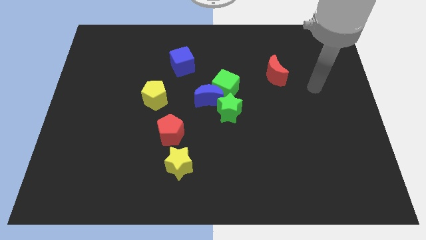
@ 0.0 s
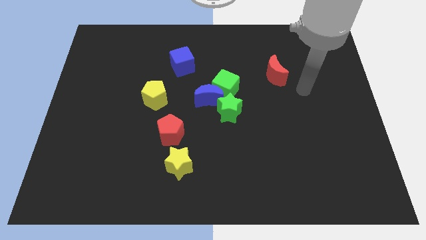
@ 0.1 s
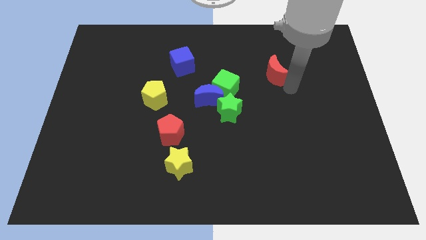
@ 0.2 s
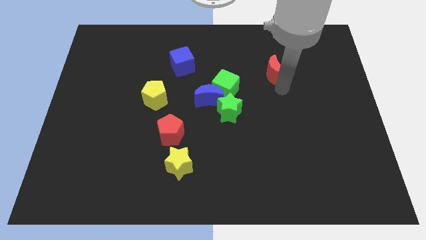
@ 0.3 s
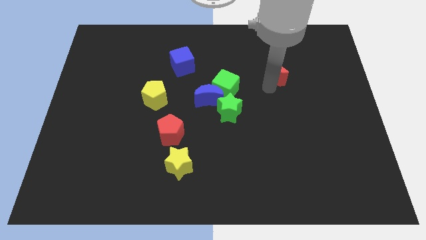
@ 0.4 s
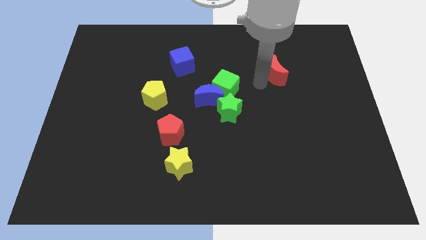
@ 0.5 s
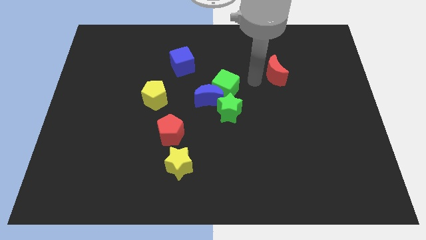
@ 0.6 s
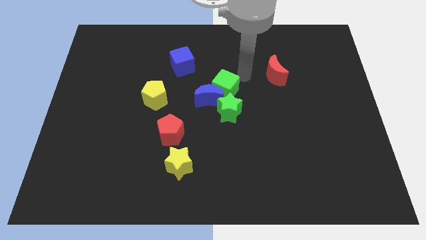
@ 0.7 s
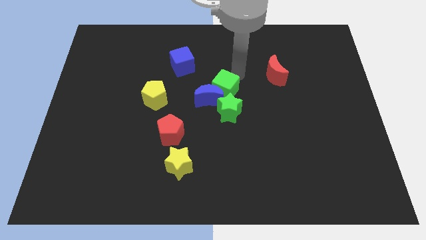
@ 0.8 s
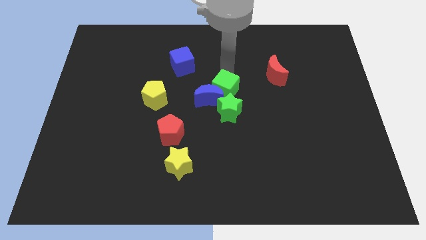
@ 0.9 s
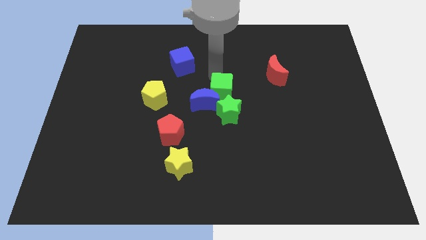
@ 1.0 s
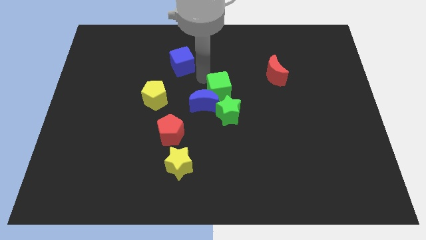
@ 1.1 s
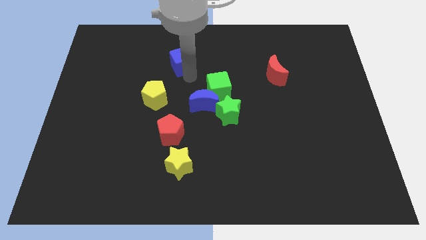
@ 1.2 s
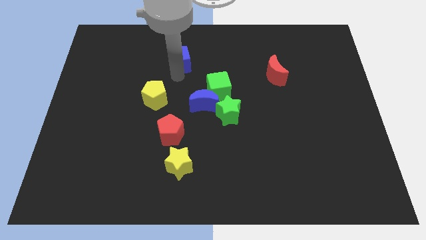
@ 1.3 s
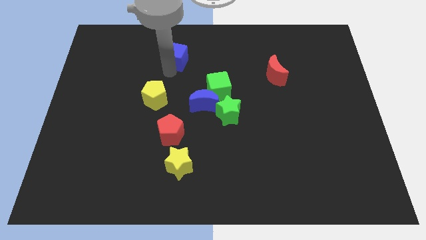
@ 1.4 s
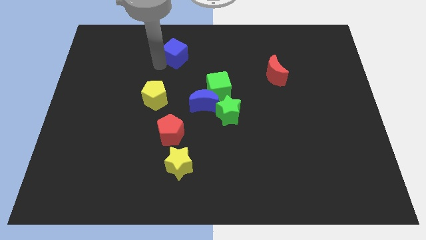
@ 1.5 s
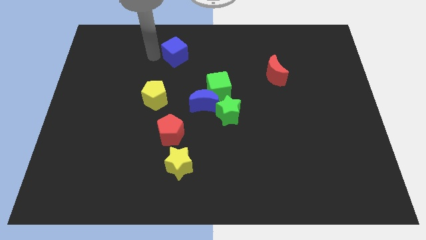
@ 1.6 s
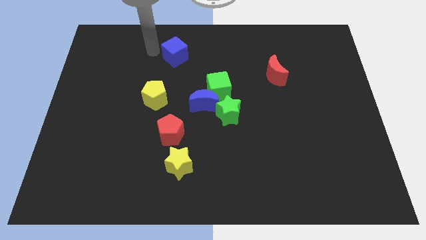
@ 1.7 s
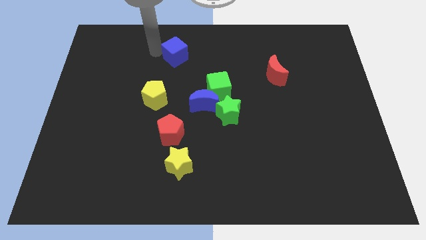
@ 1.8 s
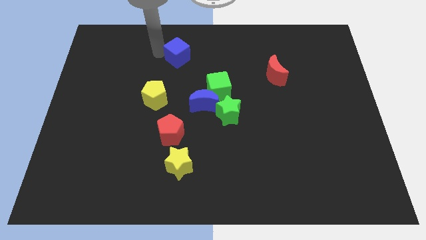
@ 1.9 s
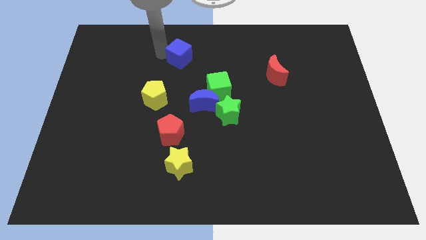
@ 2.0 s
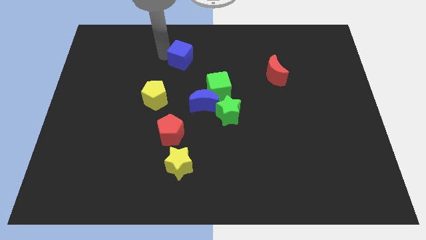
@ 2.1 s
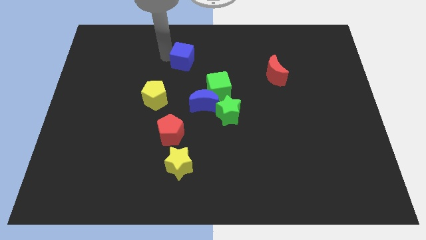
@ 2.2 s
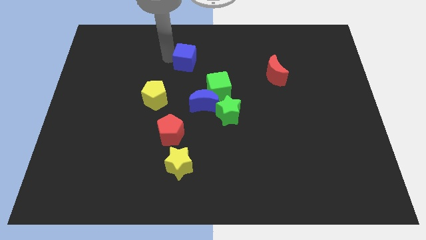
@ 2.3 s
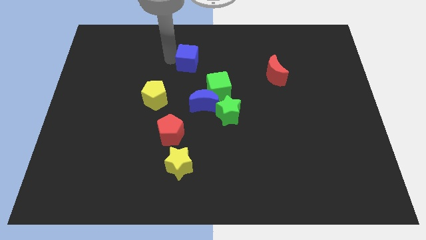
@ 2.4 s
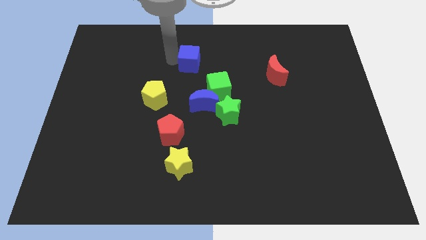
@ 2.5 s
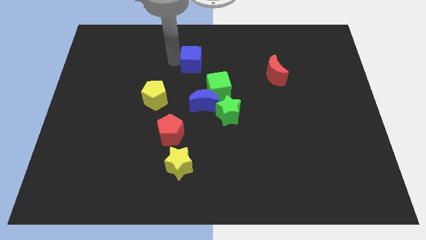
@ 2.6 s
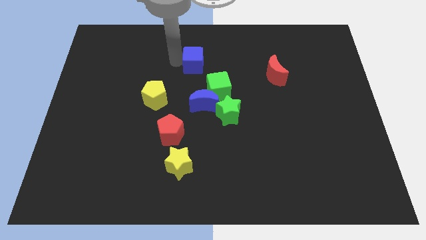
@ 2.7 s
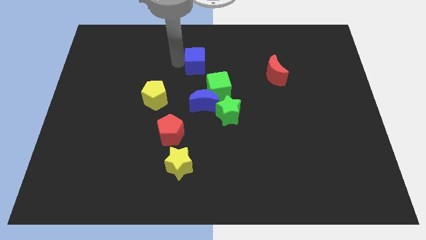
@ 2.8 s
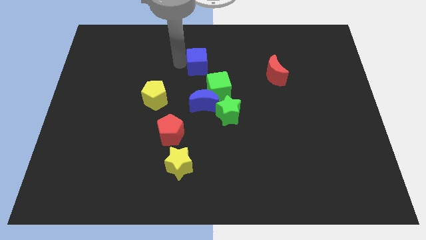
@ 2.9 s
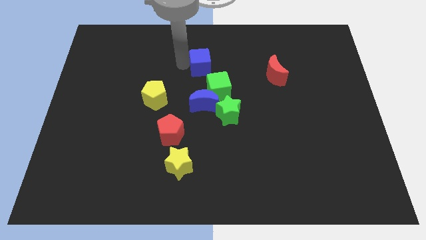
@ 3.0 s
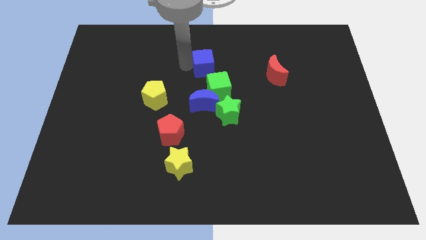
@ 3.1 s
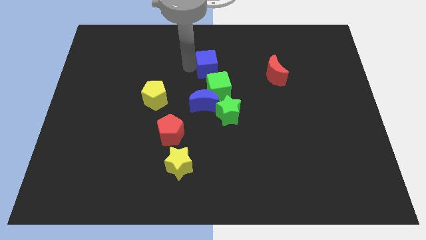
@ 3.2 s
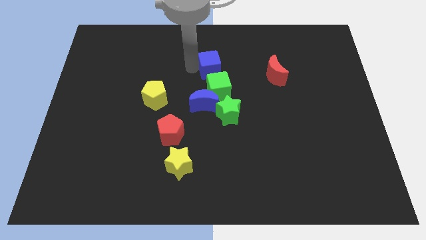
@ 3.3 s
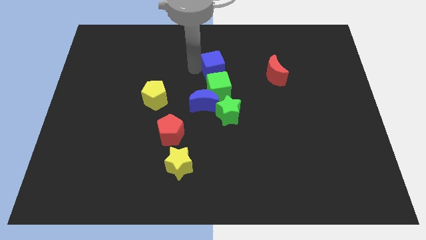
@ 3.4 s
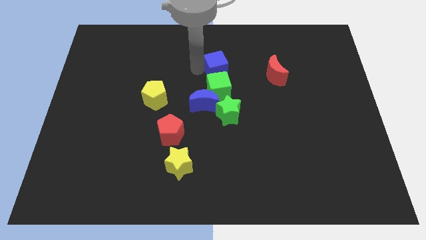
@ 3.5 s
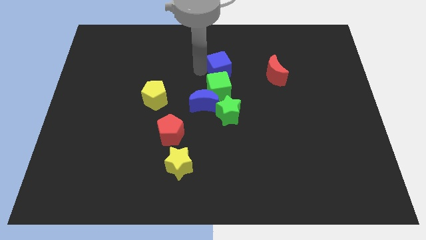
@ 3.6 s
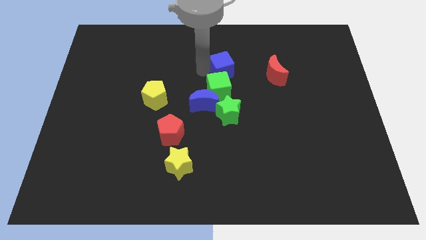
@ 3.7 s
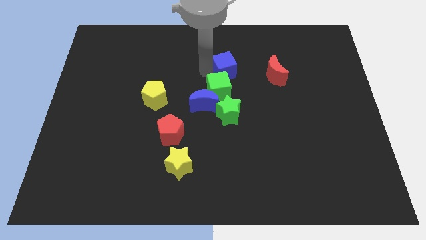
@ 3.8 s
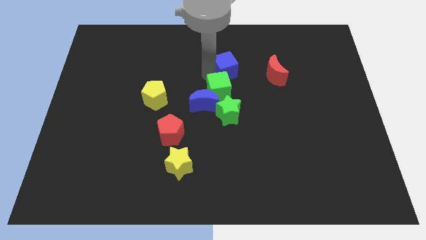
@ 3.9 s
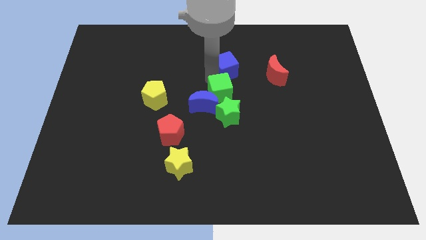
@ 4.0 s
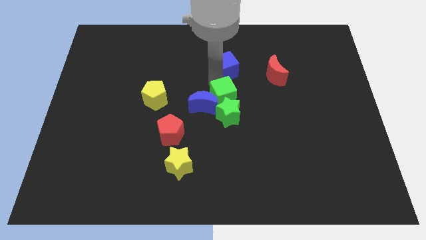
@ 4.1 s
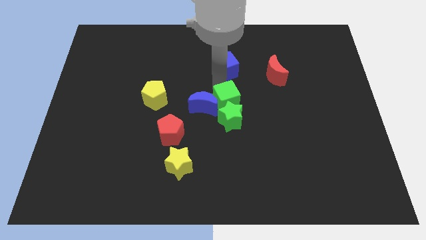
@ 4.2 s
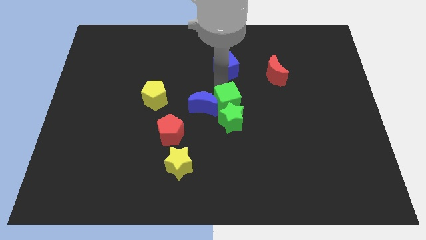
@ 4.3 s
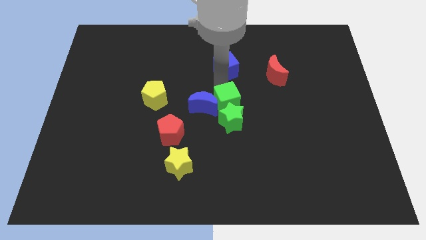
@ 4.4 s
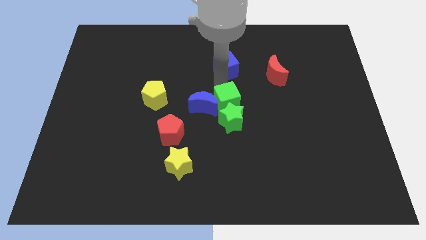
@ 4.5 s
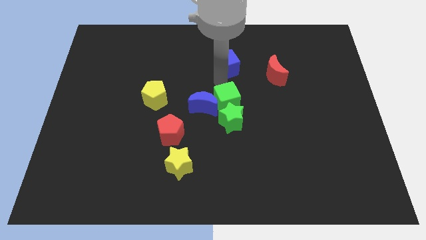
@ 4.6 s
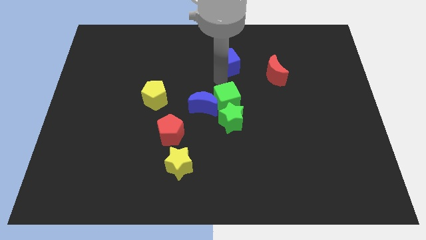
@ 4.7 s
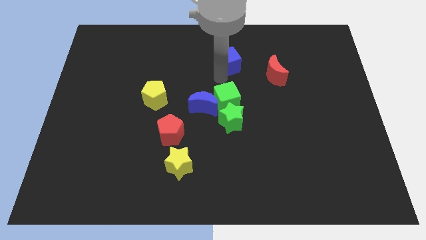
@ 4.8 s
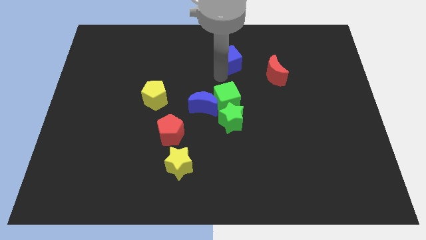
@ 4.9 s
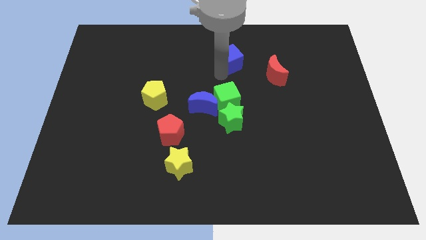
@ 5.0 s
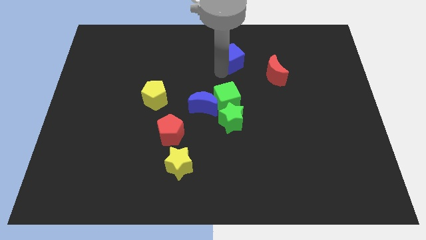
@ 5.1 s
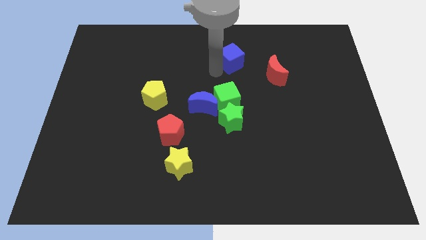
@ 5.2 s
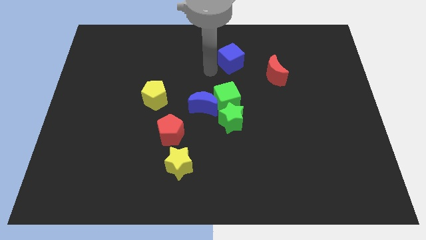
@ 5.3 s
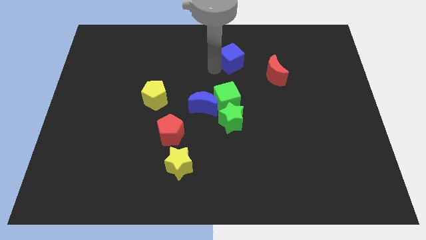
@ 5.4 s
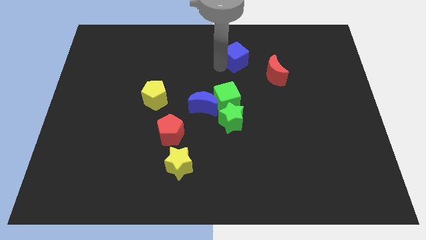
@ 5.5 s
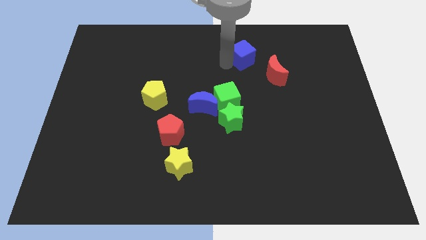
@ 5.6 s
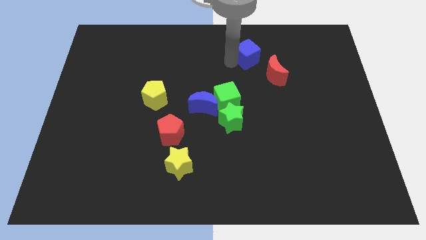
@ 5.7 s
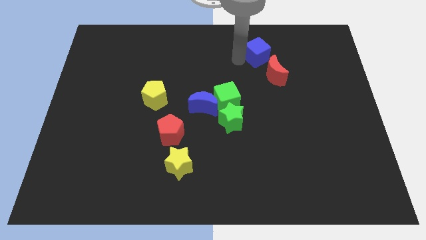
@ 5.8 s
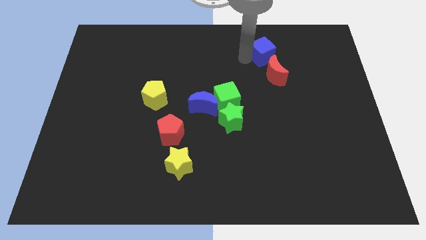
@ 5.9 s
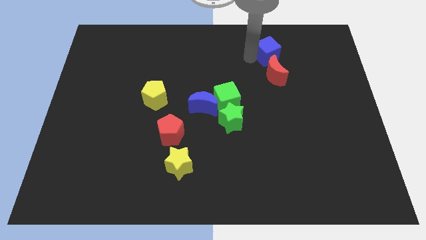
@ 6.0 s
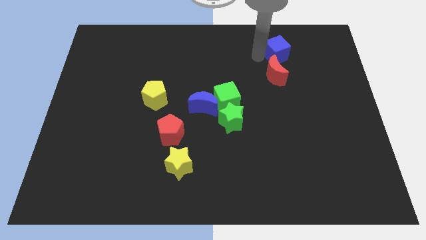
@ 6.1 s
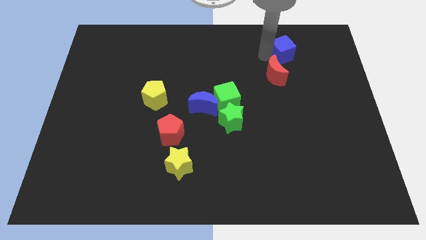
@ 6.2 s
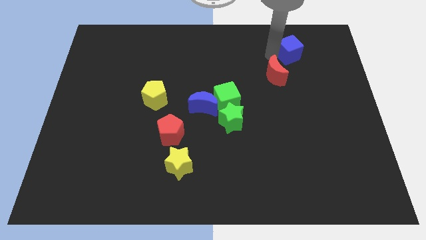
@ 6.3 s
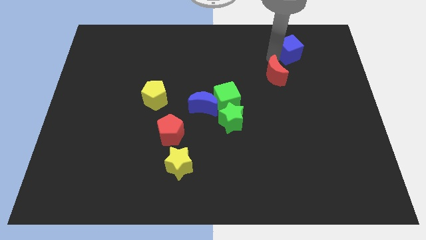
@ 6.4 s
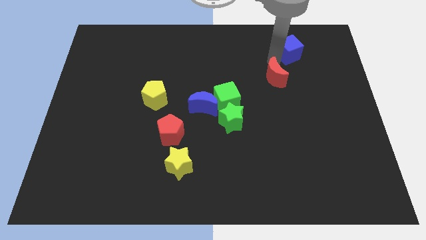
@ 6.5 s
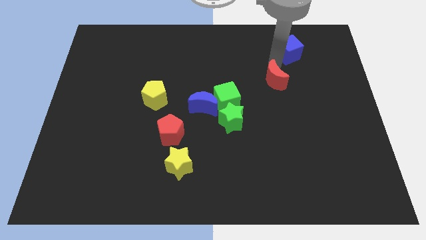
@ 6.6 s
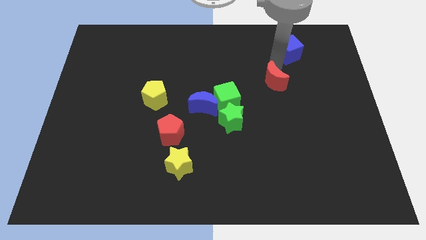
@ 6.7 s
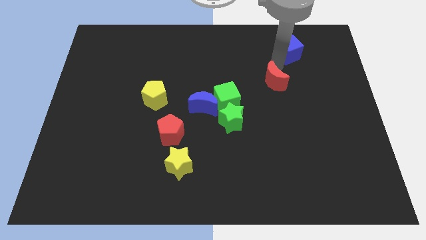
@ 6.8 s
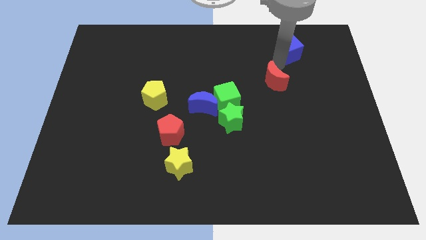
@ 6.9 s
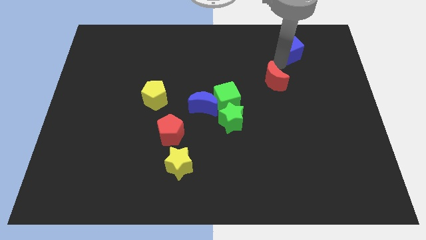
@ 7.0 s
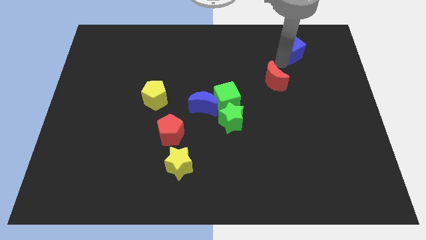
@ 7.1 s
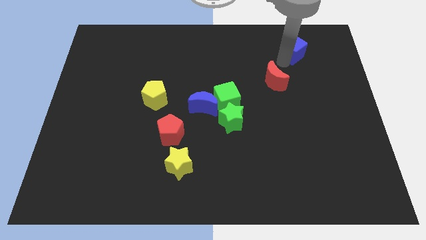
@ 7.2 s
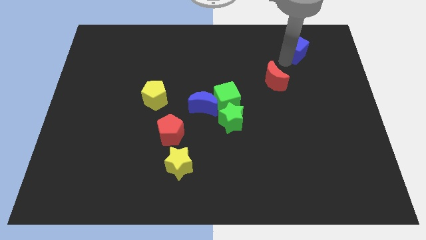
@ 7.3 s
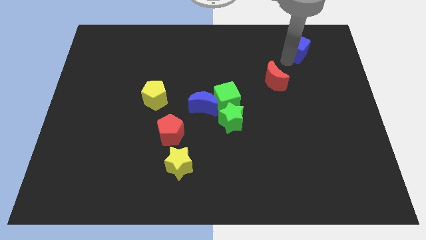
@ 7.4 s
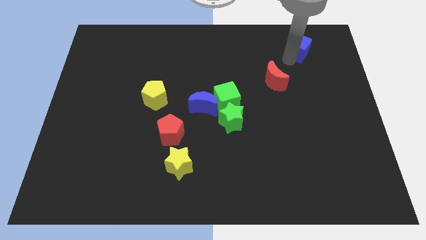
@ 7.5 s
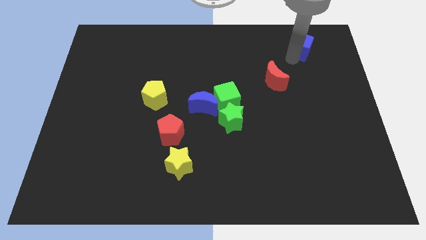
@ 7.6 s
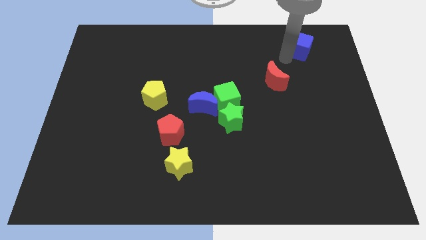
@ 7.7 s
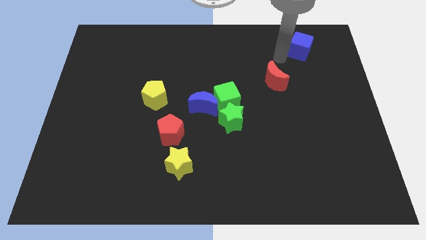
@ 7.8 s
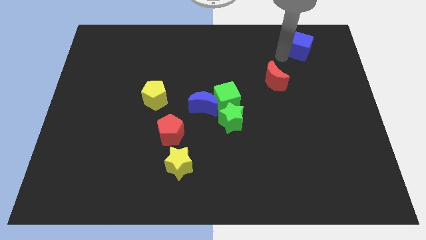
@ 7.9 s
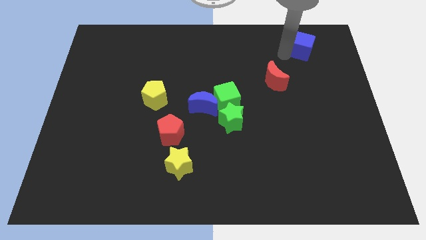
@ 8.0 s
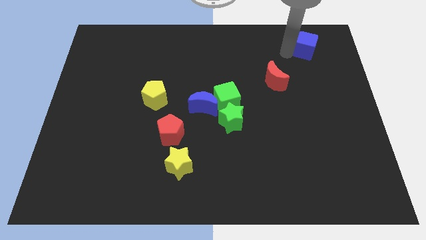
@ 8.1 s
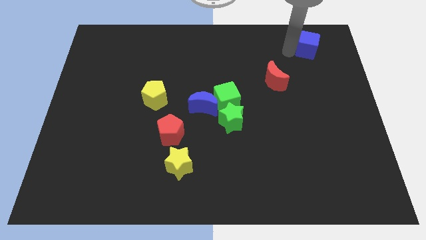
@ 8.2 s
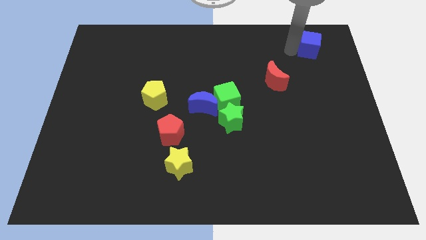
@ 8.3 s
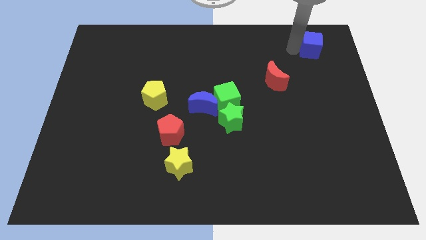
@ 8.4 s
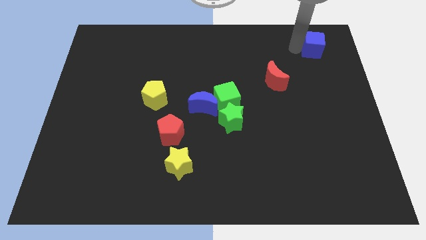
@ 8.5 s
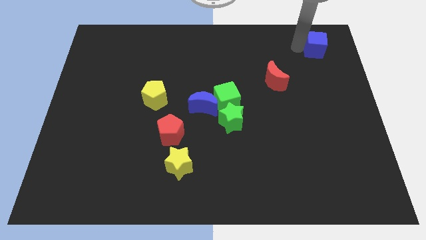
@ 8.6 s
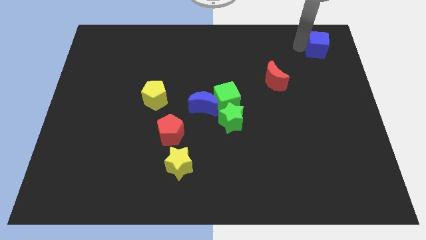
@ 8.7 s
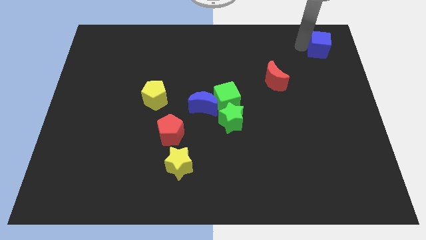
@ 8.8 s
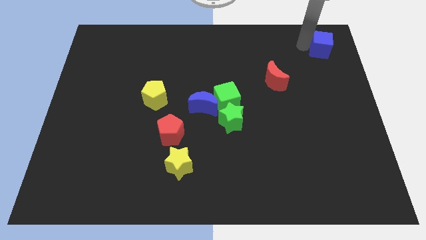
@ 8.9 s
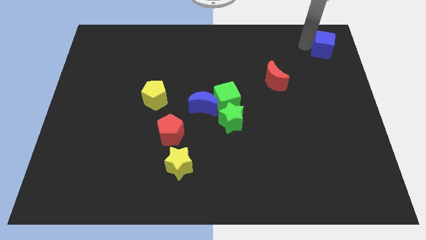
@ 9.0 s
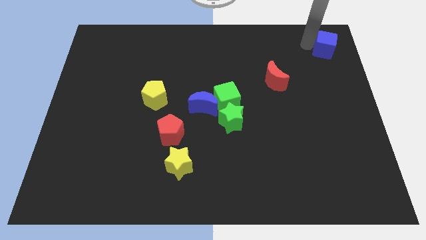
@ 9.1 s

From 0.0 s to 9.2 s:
slide the blue cube to the upper right corner
